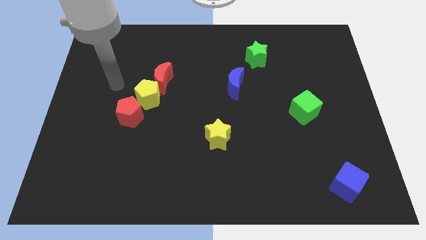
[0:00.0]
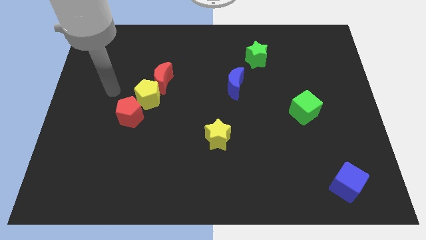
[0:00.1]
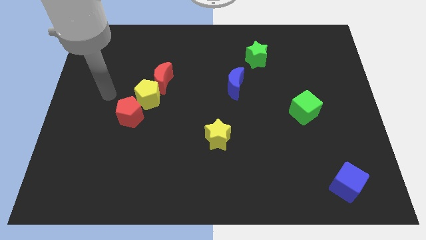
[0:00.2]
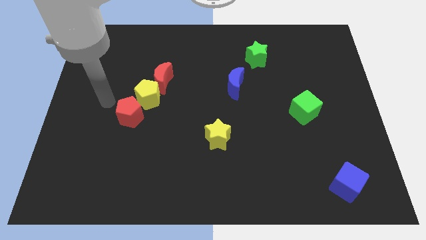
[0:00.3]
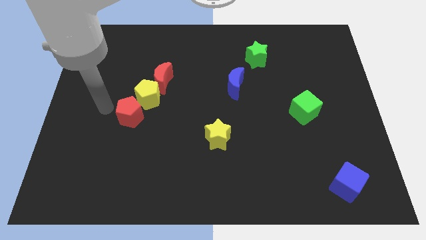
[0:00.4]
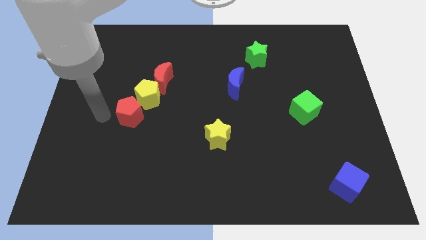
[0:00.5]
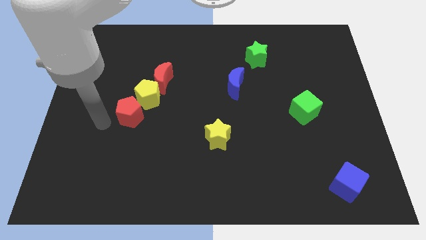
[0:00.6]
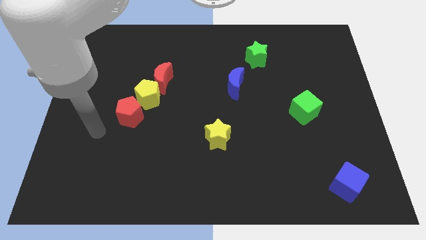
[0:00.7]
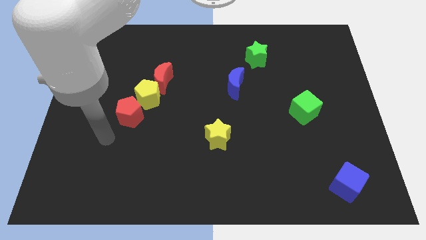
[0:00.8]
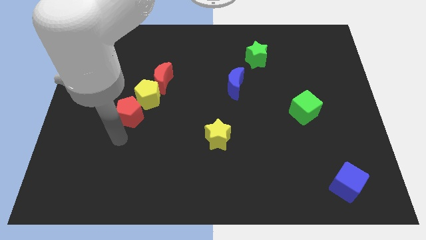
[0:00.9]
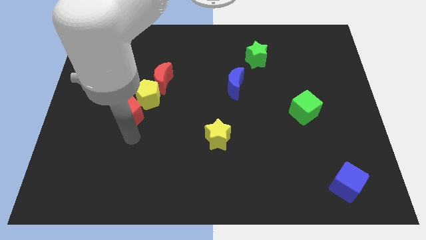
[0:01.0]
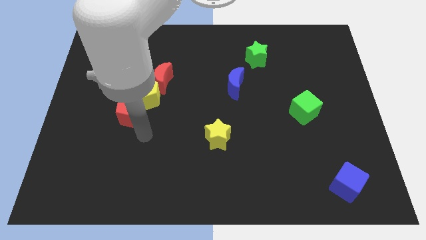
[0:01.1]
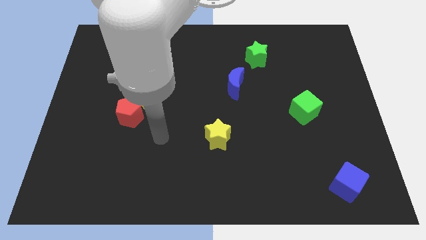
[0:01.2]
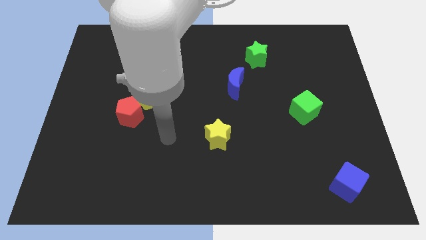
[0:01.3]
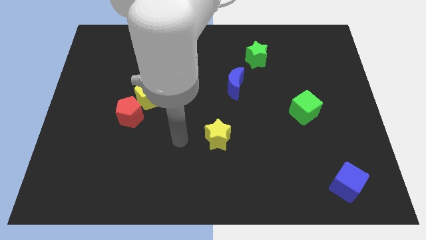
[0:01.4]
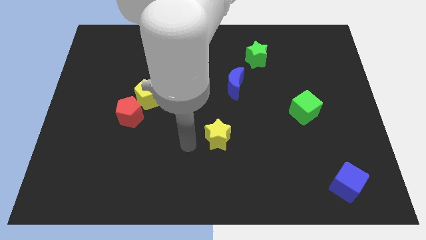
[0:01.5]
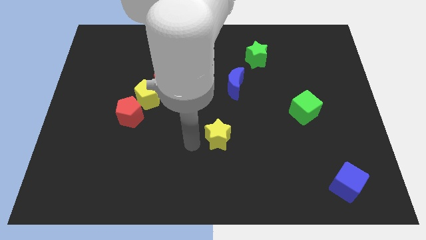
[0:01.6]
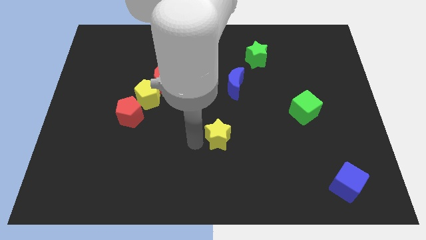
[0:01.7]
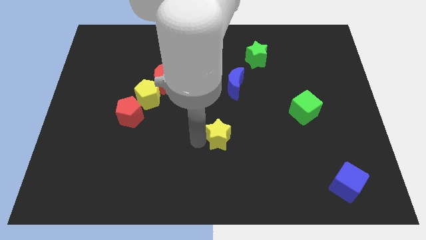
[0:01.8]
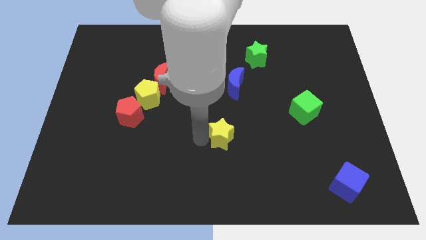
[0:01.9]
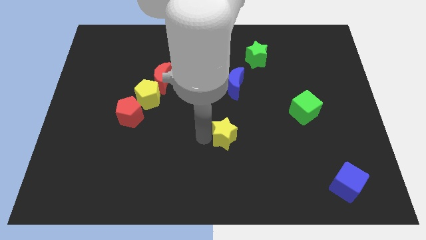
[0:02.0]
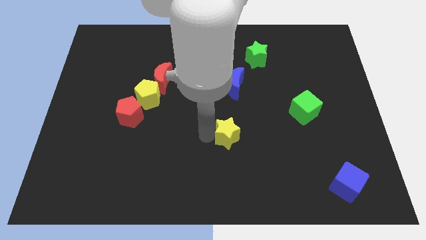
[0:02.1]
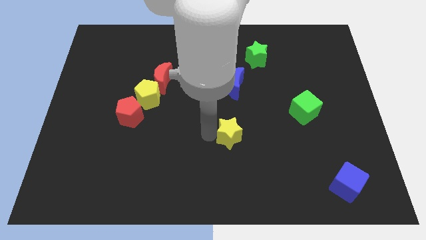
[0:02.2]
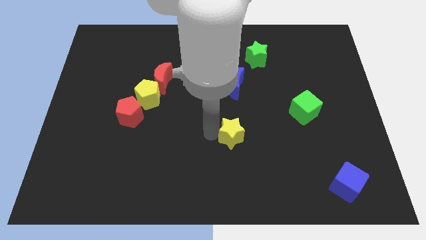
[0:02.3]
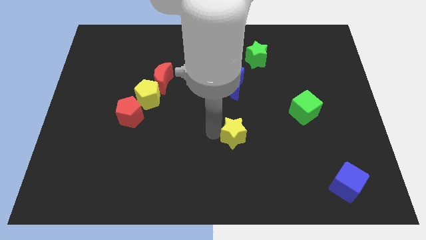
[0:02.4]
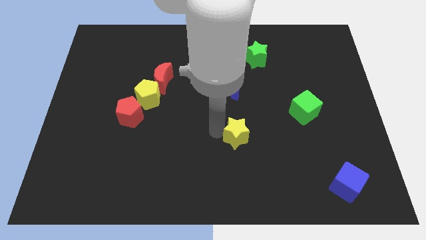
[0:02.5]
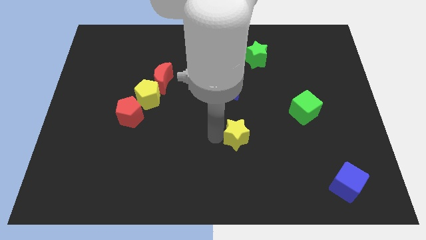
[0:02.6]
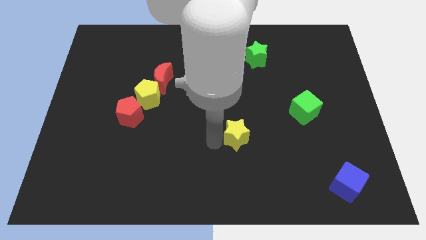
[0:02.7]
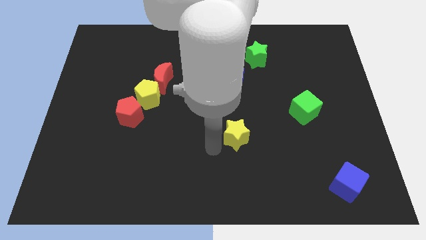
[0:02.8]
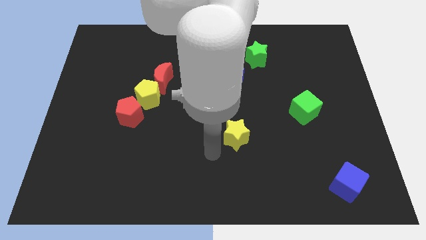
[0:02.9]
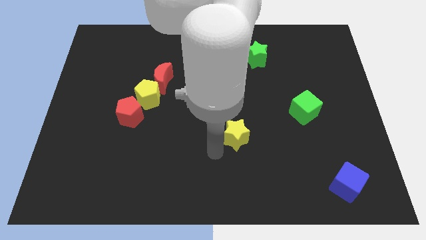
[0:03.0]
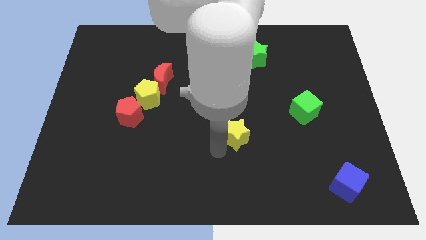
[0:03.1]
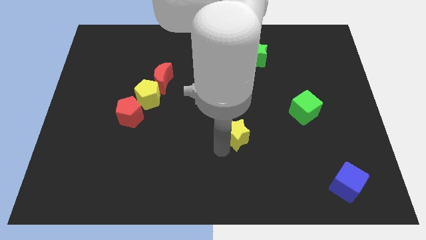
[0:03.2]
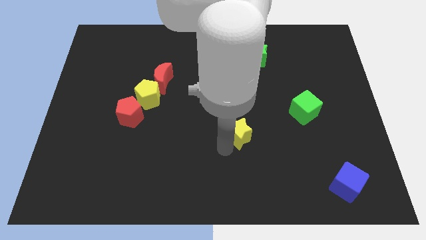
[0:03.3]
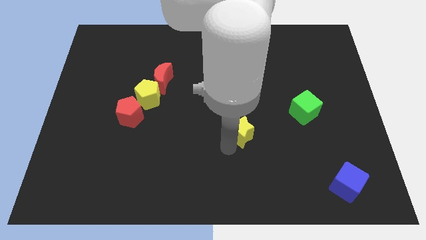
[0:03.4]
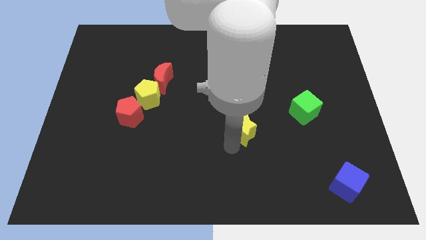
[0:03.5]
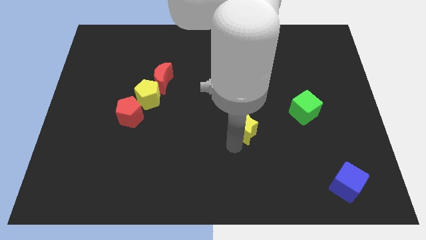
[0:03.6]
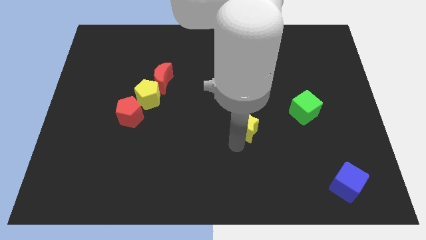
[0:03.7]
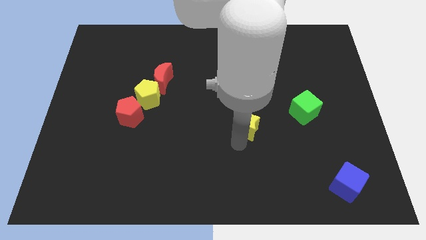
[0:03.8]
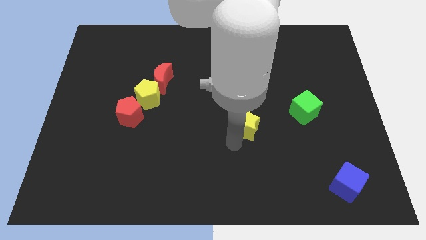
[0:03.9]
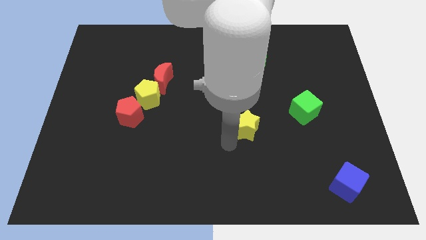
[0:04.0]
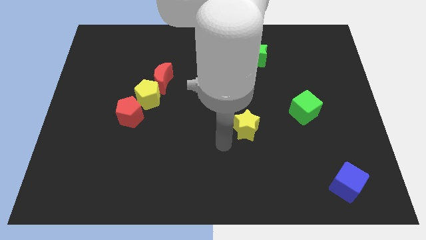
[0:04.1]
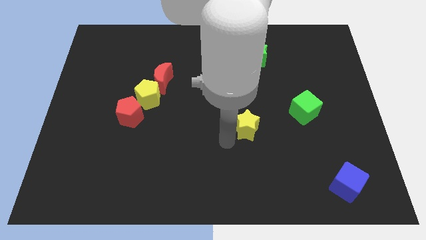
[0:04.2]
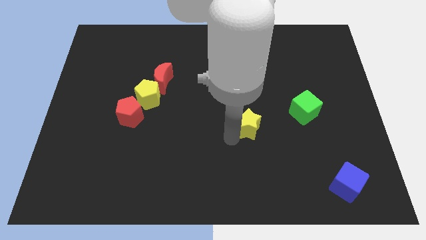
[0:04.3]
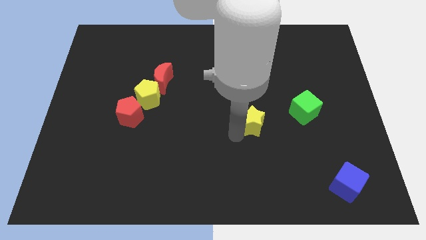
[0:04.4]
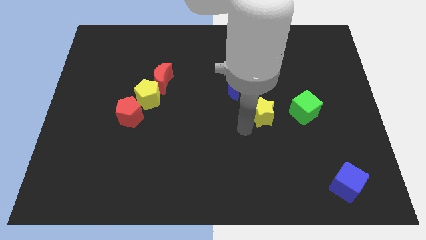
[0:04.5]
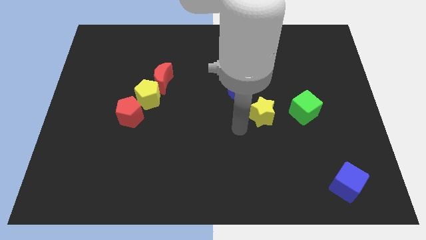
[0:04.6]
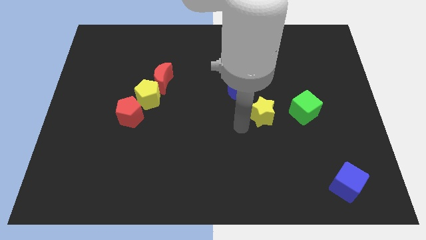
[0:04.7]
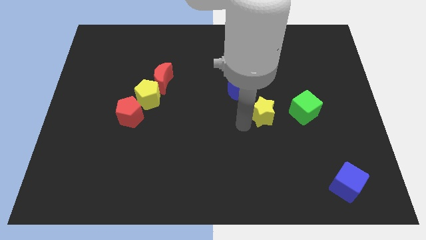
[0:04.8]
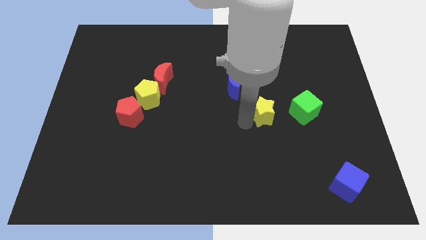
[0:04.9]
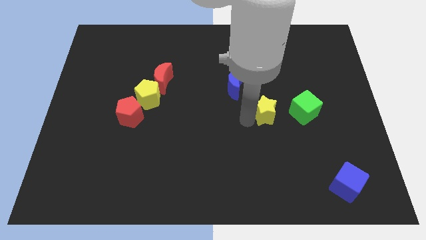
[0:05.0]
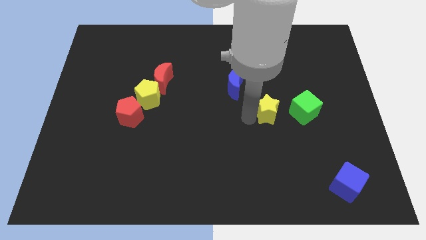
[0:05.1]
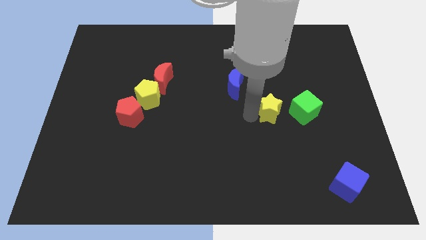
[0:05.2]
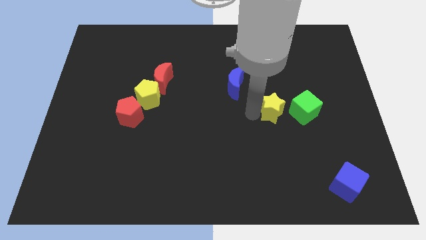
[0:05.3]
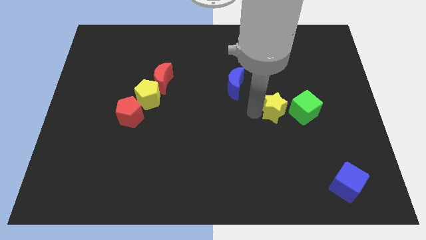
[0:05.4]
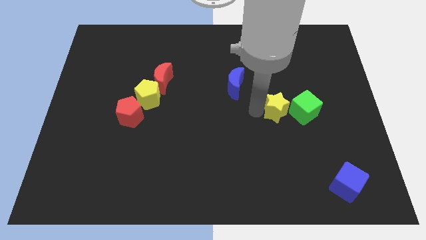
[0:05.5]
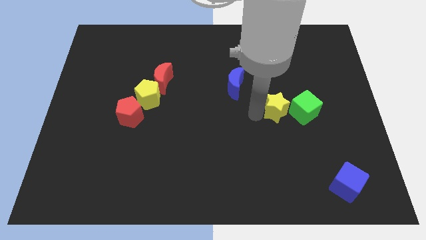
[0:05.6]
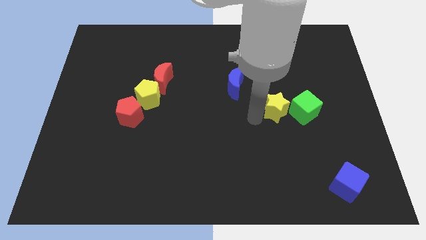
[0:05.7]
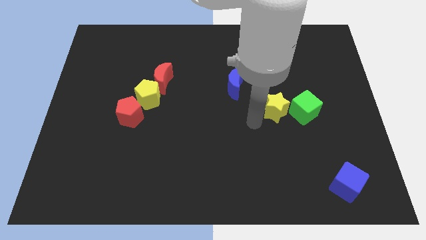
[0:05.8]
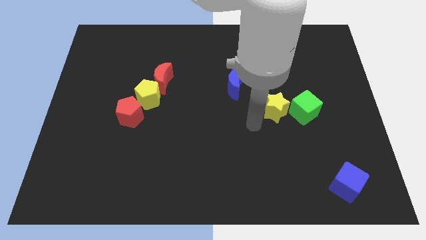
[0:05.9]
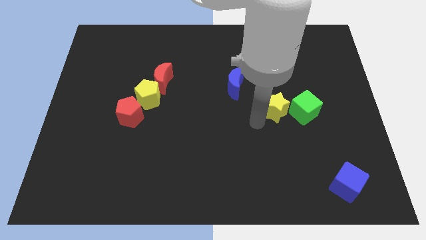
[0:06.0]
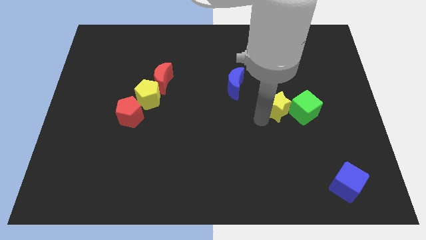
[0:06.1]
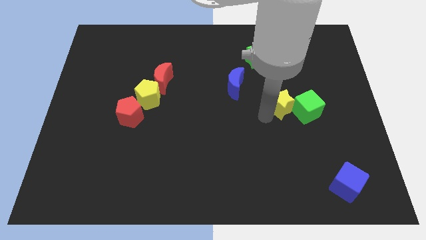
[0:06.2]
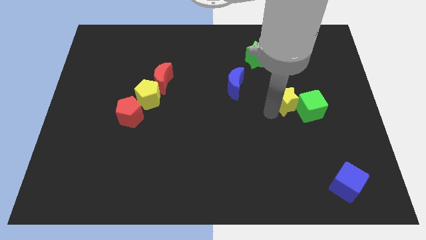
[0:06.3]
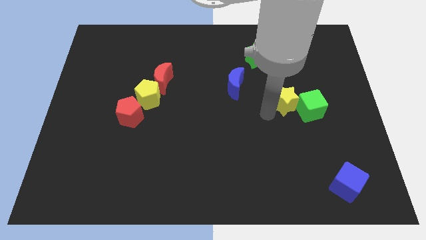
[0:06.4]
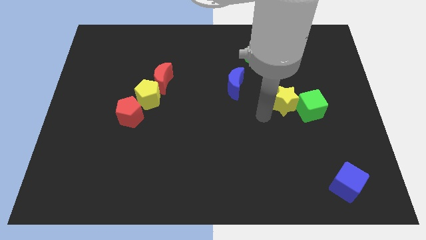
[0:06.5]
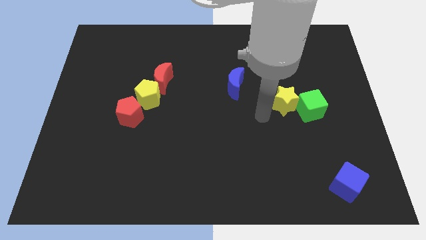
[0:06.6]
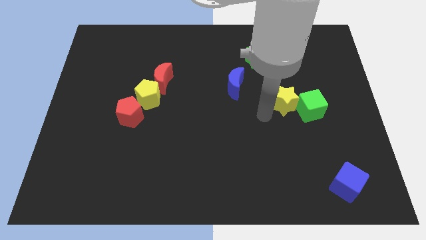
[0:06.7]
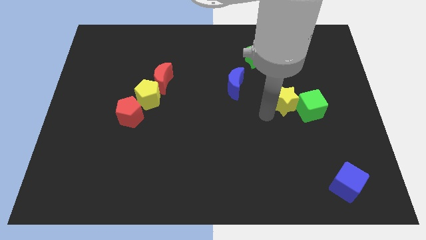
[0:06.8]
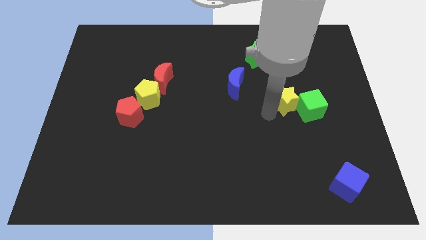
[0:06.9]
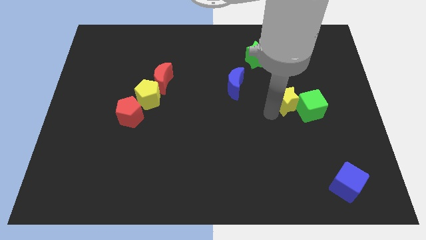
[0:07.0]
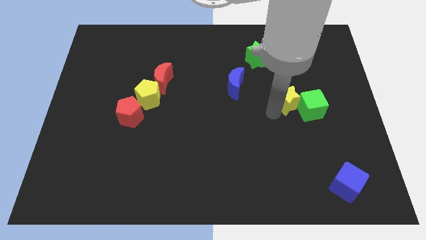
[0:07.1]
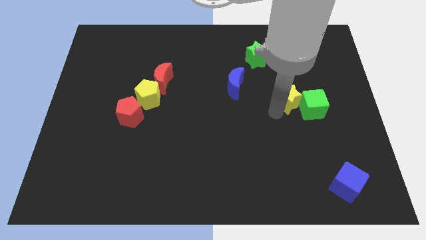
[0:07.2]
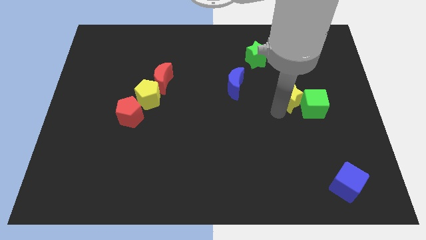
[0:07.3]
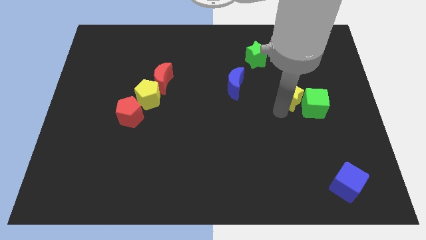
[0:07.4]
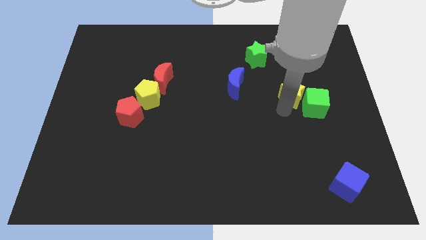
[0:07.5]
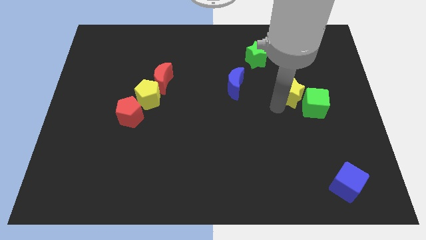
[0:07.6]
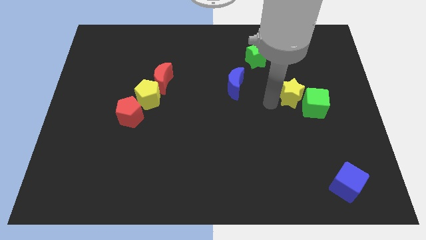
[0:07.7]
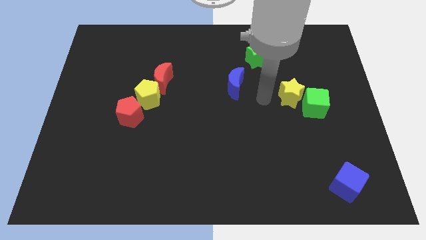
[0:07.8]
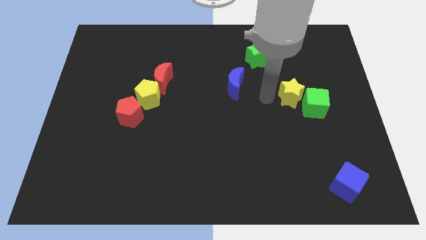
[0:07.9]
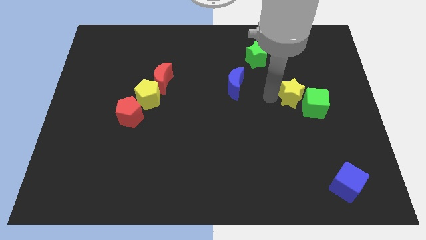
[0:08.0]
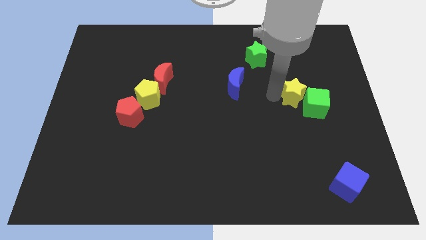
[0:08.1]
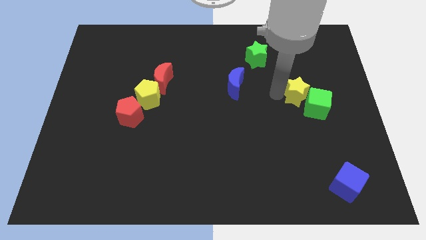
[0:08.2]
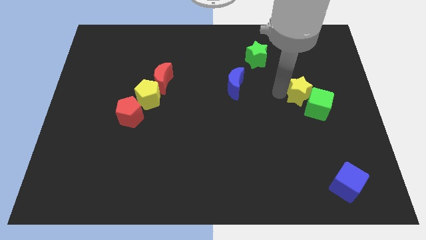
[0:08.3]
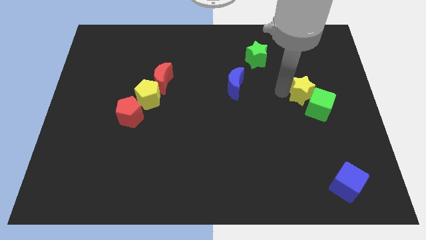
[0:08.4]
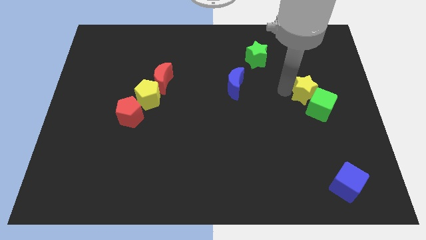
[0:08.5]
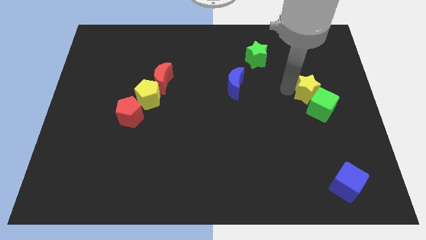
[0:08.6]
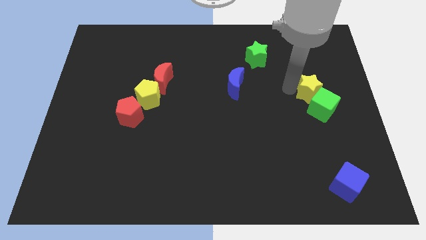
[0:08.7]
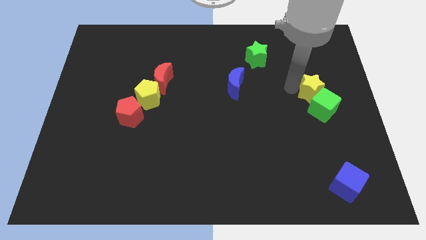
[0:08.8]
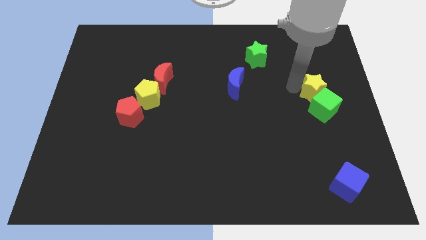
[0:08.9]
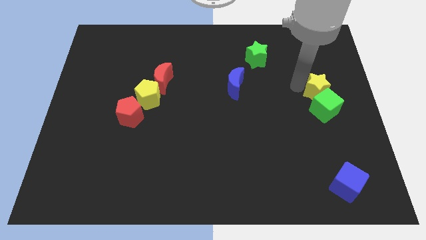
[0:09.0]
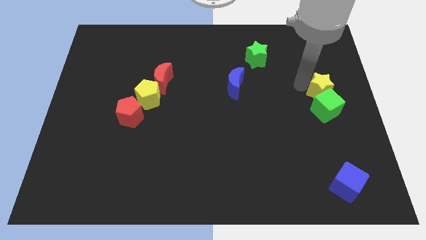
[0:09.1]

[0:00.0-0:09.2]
put the yellow star to the center right
